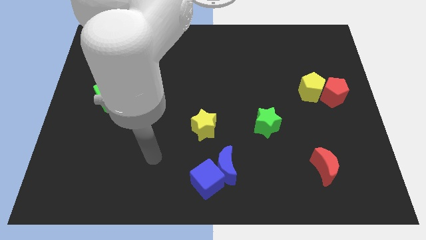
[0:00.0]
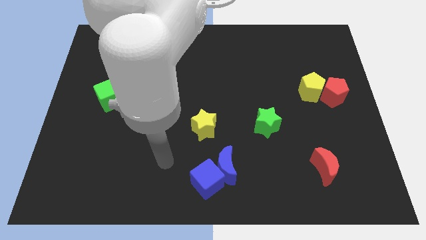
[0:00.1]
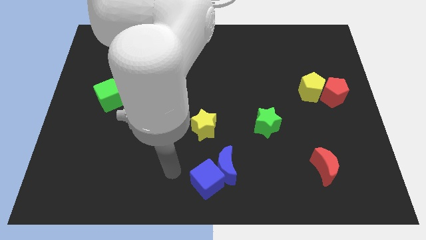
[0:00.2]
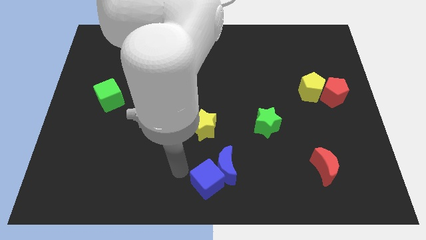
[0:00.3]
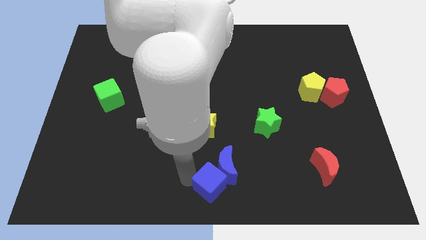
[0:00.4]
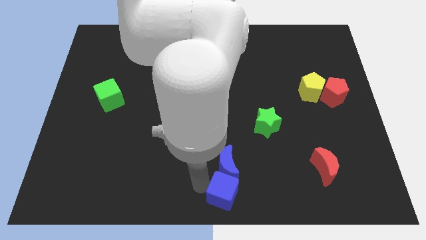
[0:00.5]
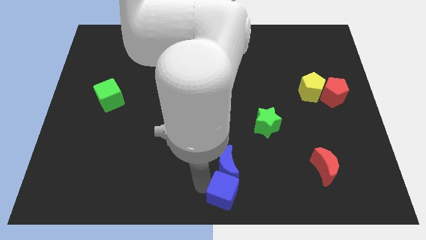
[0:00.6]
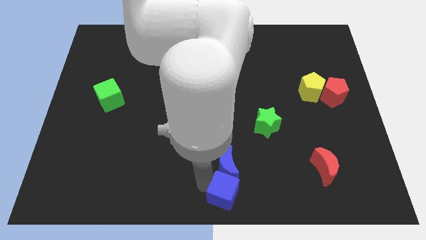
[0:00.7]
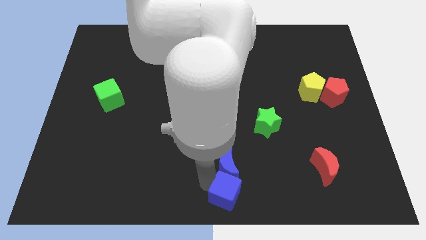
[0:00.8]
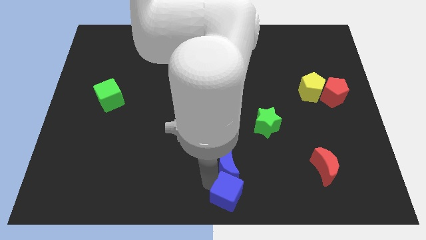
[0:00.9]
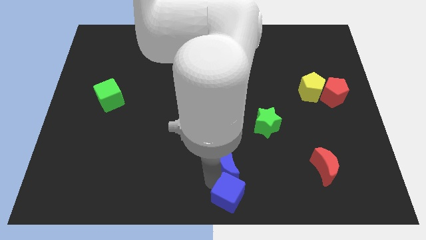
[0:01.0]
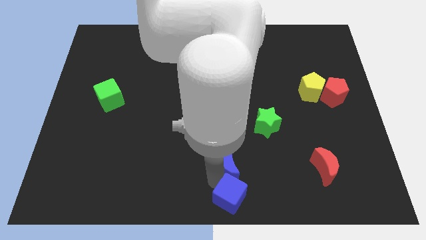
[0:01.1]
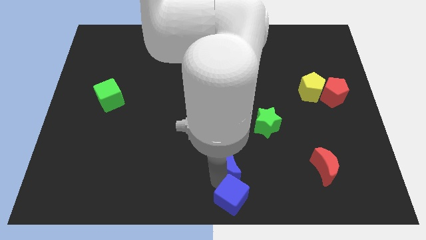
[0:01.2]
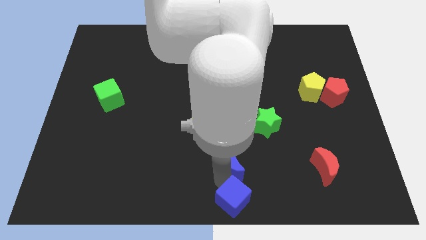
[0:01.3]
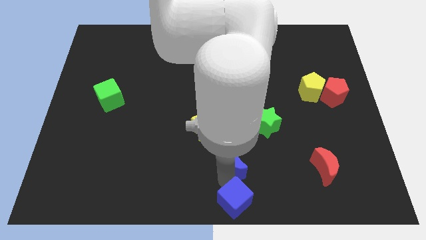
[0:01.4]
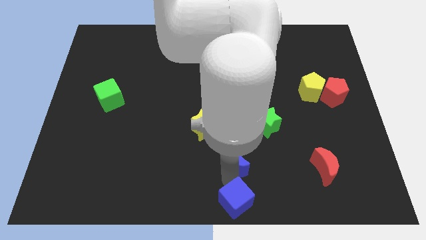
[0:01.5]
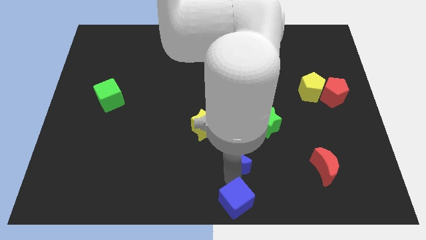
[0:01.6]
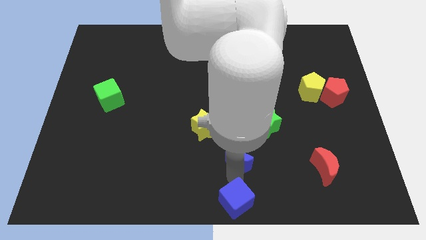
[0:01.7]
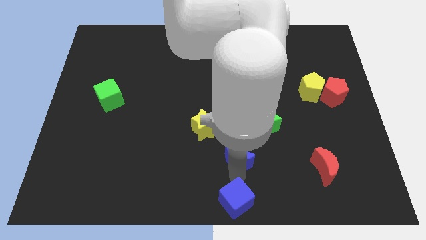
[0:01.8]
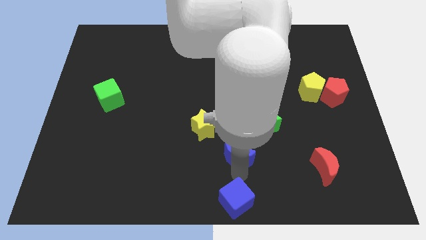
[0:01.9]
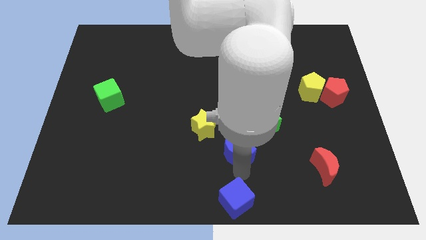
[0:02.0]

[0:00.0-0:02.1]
move the blue moon away from the blue cube

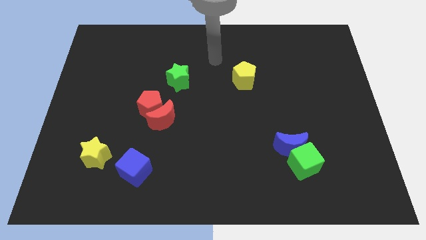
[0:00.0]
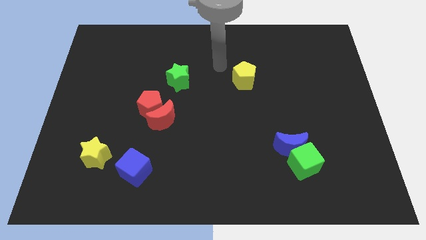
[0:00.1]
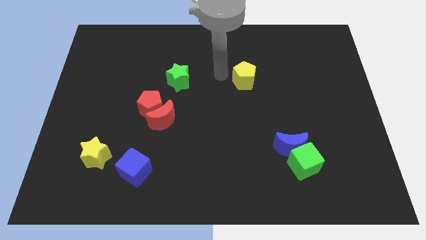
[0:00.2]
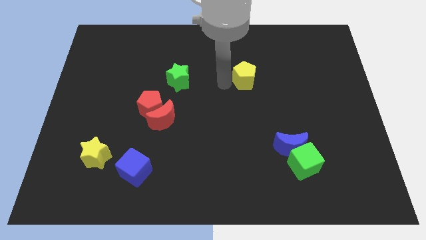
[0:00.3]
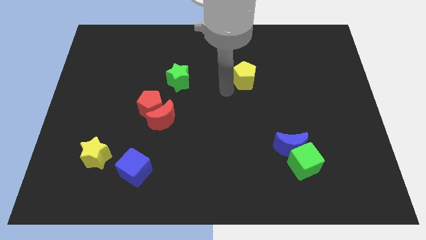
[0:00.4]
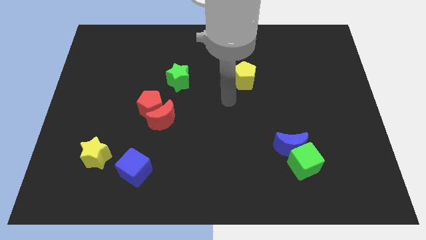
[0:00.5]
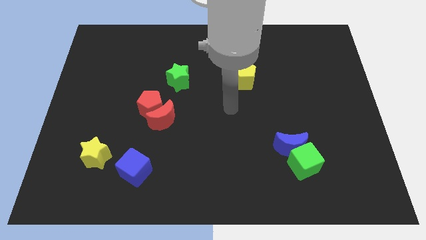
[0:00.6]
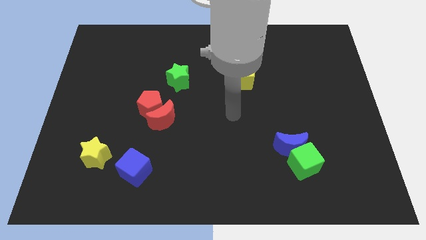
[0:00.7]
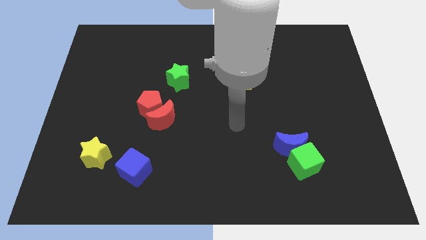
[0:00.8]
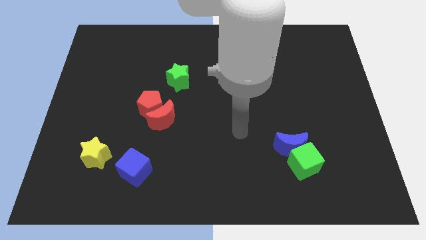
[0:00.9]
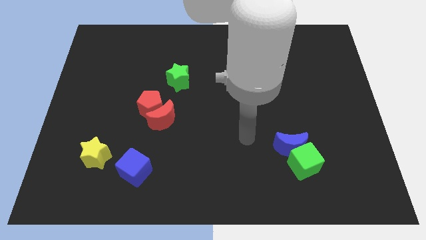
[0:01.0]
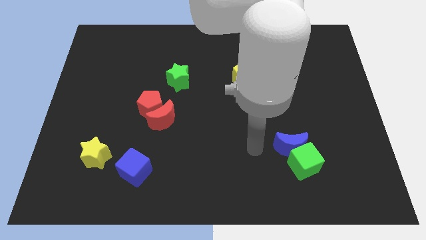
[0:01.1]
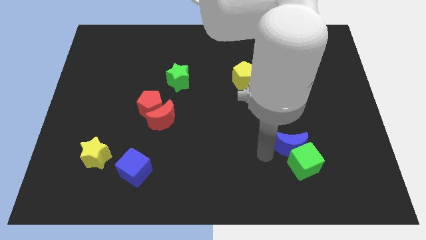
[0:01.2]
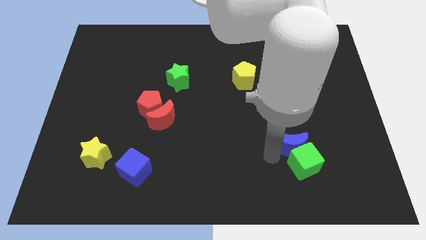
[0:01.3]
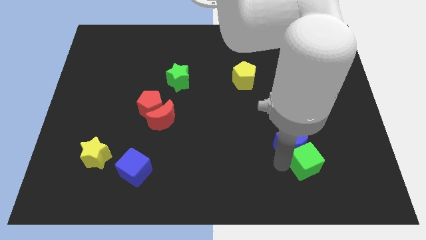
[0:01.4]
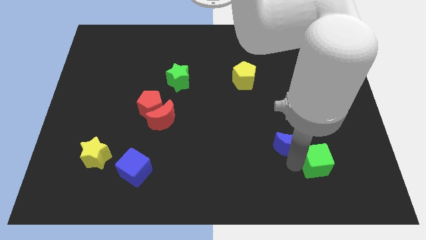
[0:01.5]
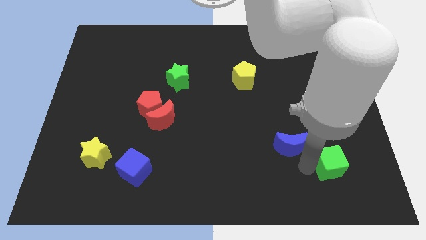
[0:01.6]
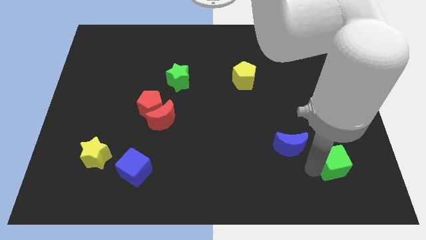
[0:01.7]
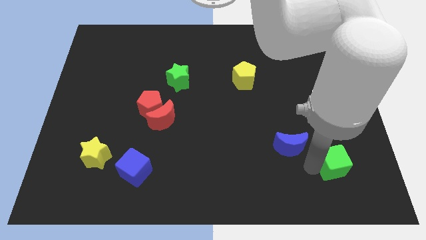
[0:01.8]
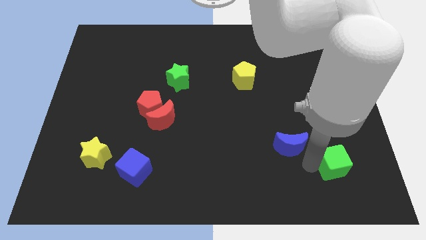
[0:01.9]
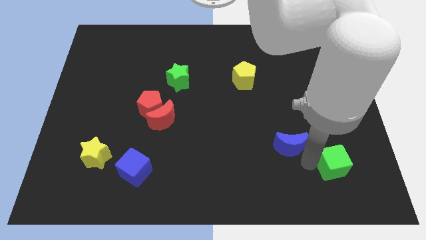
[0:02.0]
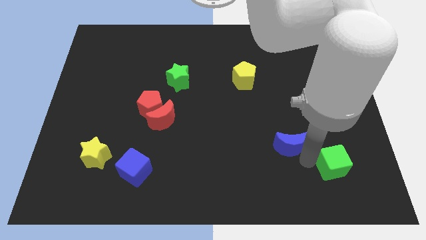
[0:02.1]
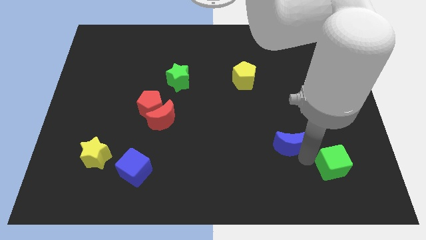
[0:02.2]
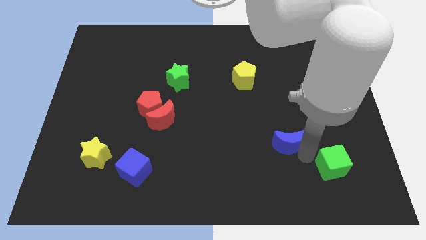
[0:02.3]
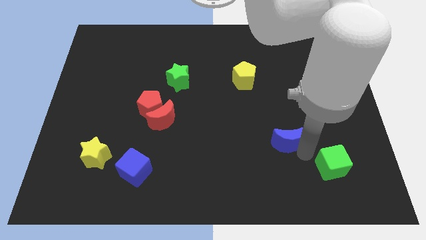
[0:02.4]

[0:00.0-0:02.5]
pull the blue moon apart from the green cube

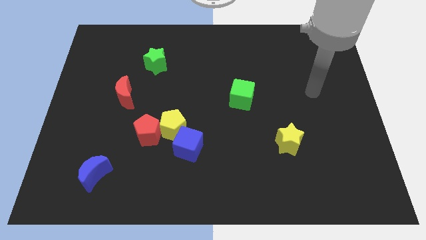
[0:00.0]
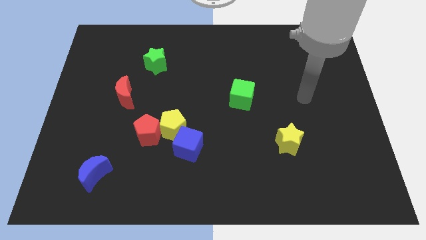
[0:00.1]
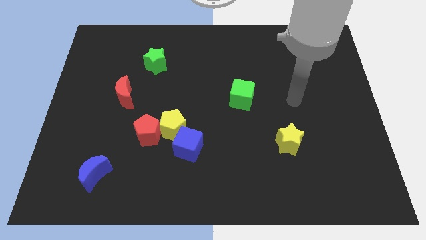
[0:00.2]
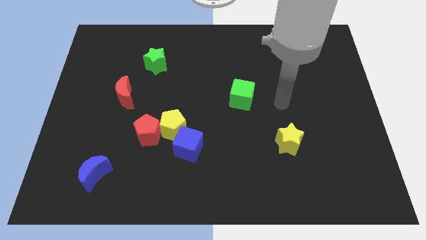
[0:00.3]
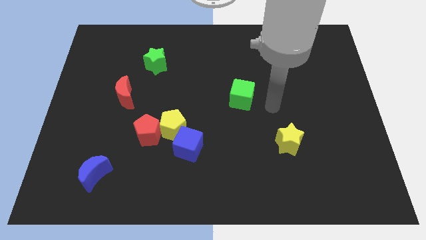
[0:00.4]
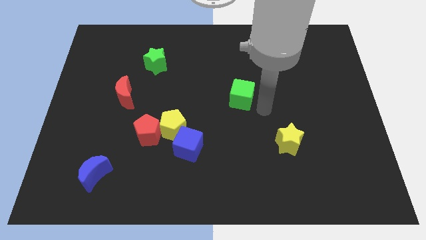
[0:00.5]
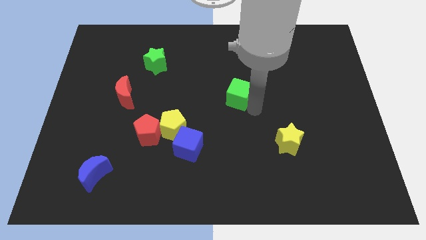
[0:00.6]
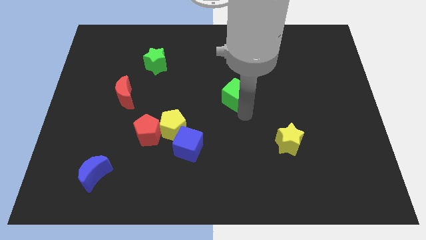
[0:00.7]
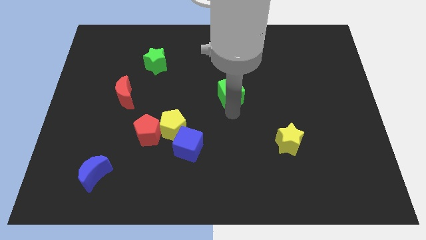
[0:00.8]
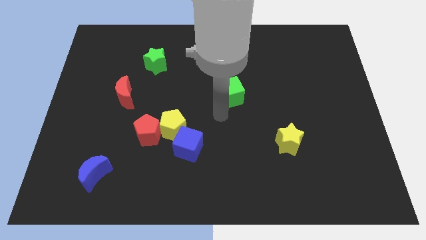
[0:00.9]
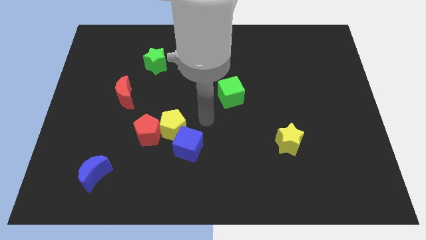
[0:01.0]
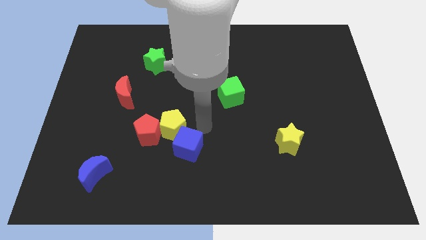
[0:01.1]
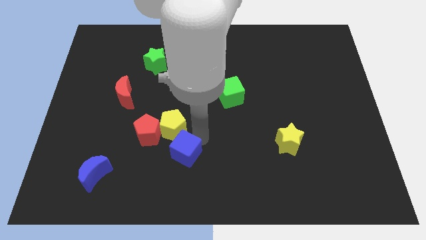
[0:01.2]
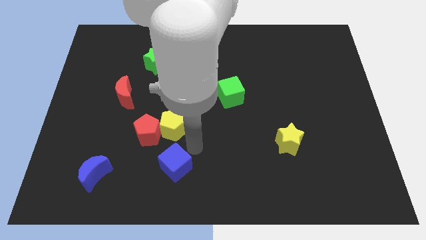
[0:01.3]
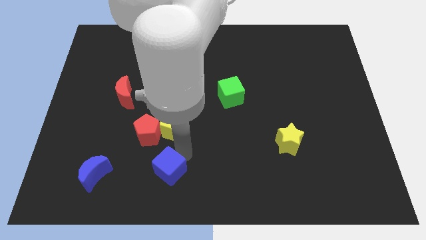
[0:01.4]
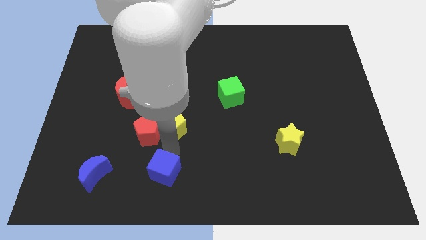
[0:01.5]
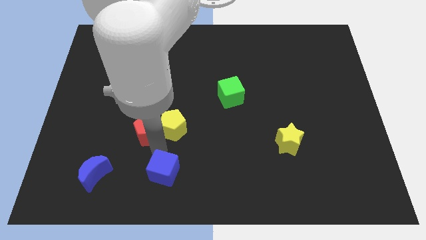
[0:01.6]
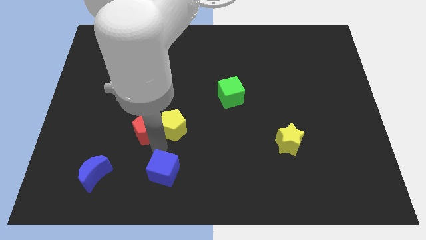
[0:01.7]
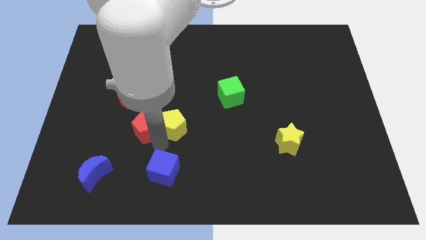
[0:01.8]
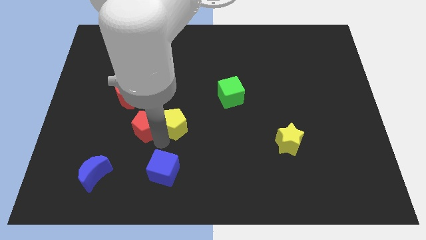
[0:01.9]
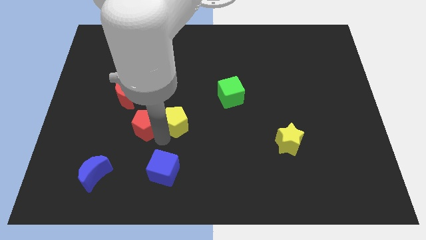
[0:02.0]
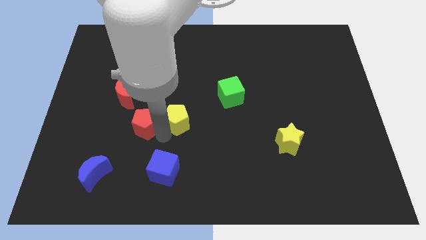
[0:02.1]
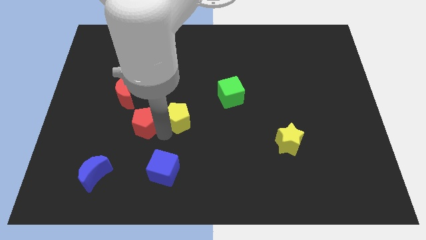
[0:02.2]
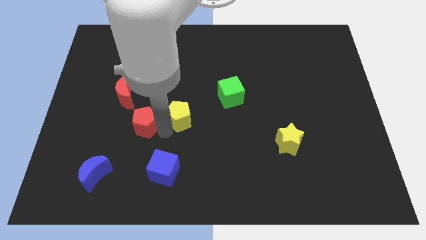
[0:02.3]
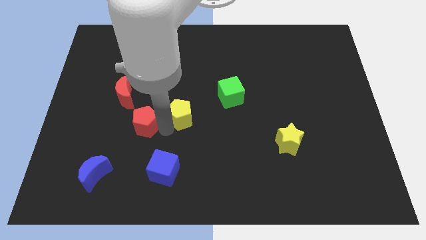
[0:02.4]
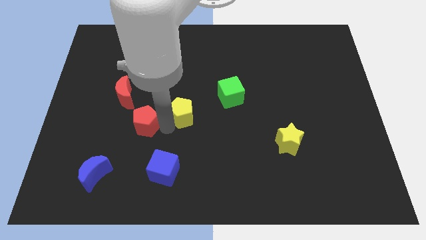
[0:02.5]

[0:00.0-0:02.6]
pull the yellow pentagon apart from the red pentagon and blue cube

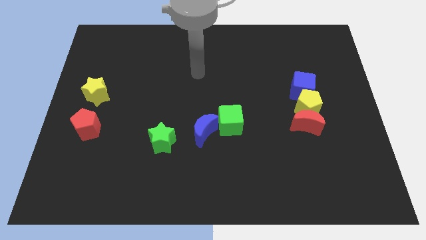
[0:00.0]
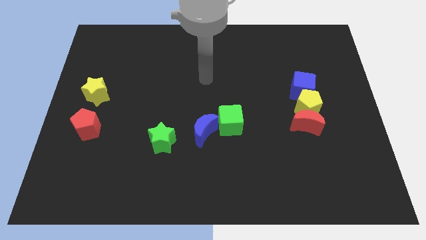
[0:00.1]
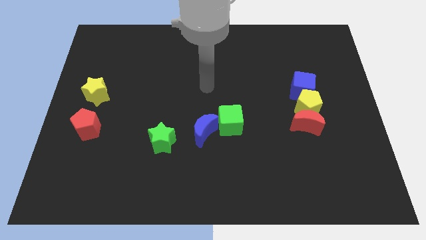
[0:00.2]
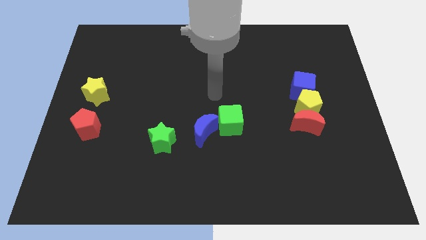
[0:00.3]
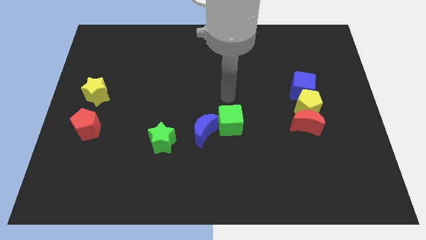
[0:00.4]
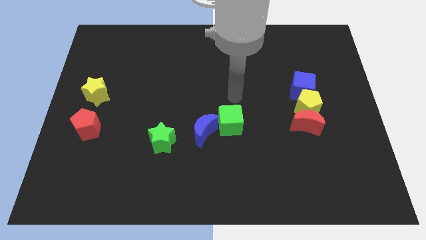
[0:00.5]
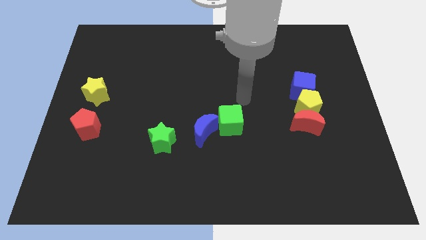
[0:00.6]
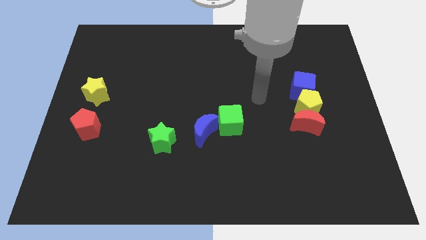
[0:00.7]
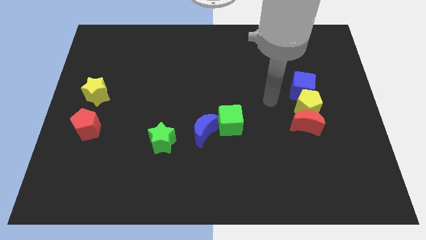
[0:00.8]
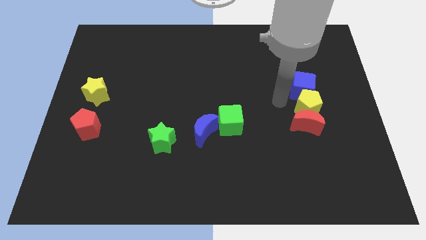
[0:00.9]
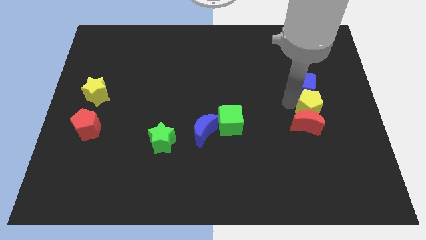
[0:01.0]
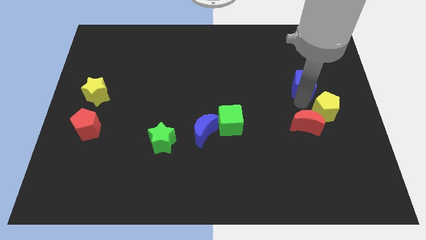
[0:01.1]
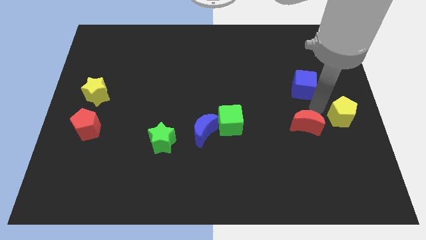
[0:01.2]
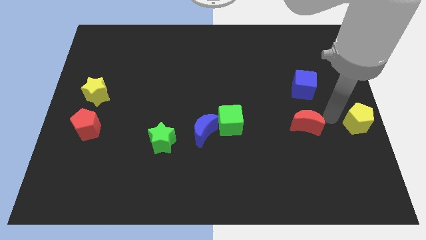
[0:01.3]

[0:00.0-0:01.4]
separate the red moon from the yellow pentagon

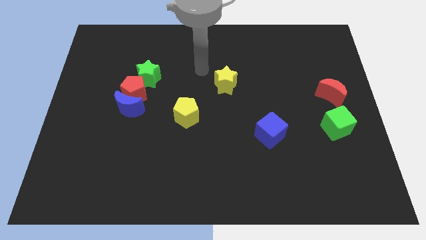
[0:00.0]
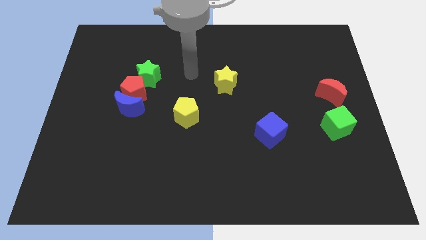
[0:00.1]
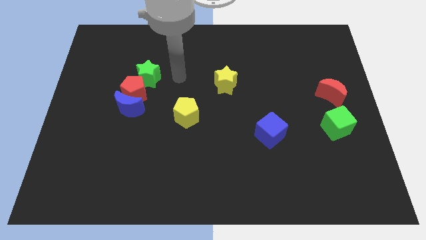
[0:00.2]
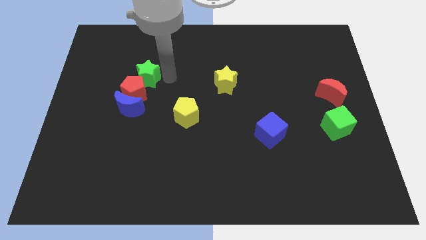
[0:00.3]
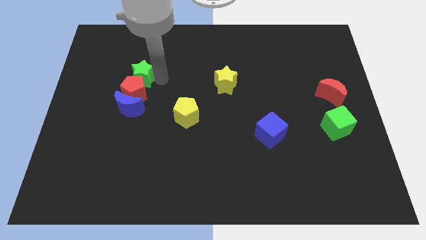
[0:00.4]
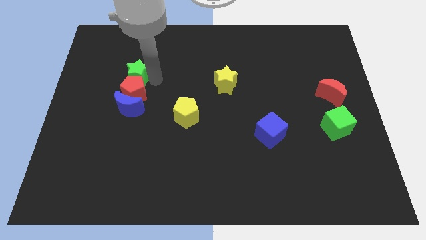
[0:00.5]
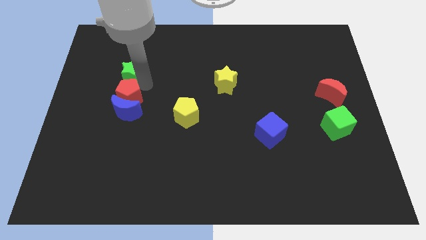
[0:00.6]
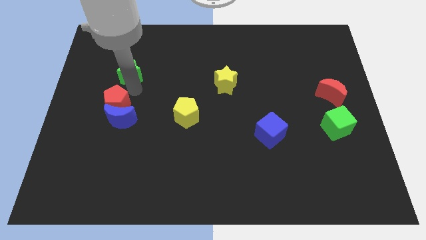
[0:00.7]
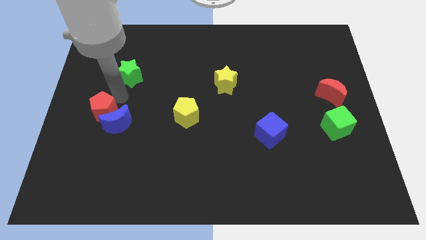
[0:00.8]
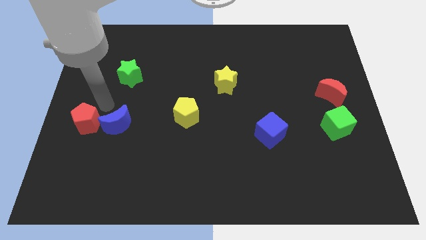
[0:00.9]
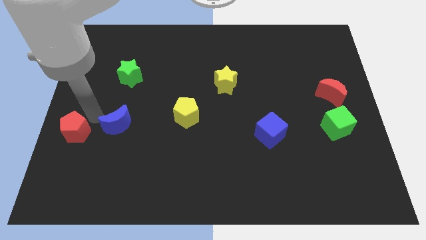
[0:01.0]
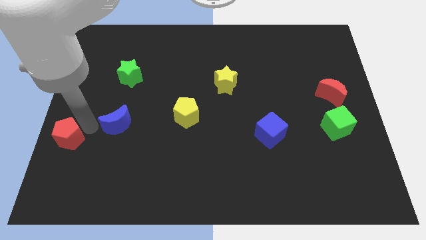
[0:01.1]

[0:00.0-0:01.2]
separate the blue moon from the red pentagon
